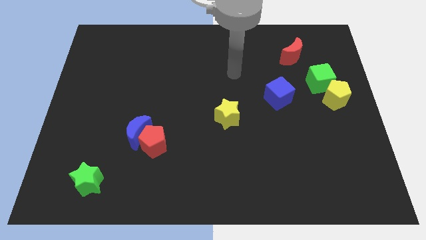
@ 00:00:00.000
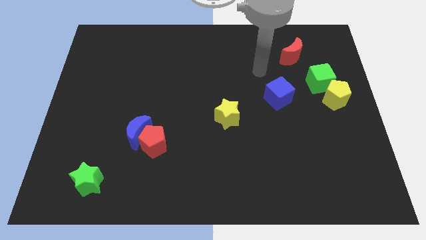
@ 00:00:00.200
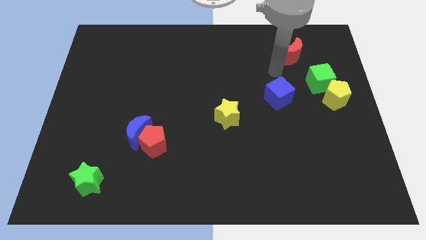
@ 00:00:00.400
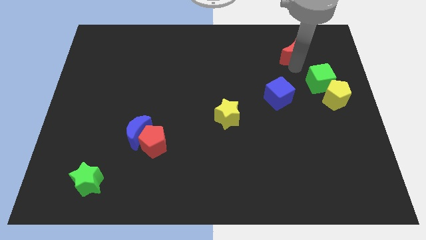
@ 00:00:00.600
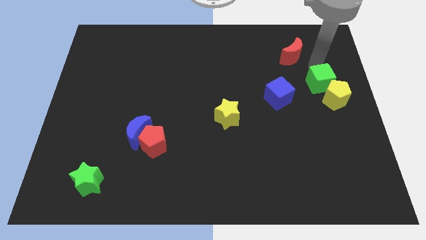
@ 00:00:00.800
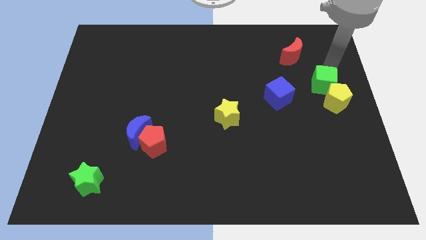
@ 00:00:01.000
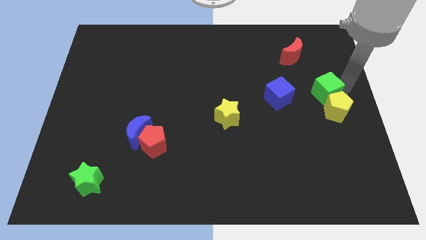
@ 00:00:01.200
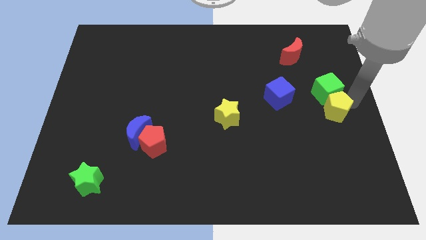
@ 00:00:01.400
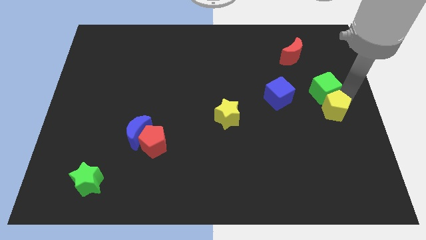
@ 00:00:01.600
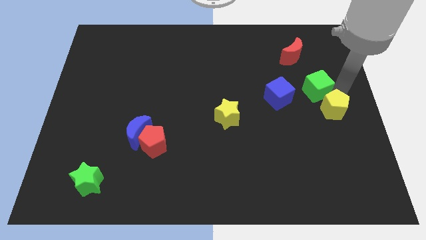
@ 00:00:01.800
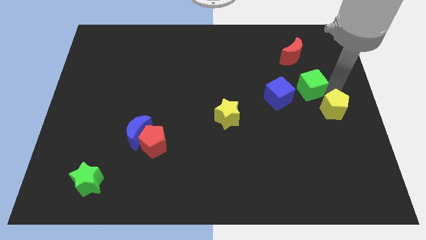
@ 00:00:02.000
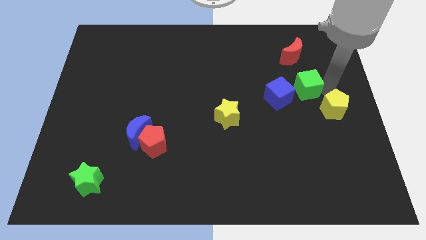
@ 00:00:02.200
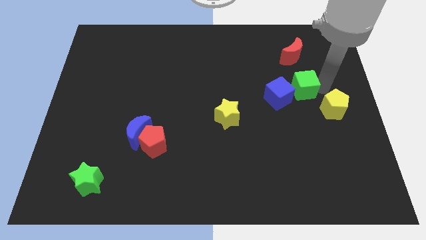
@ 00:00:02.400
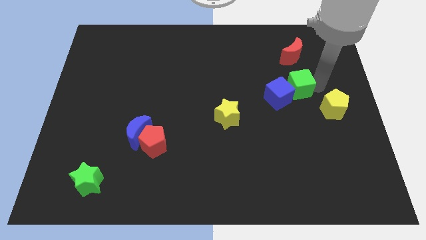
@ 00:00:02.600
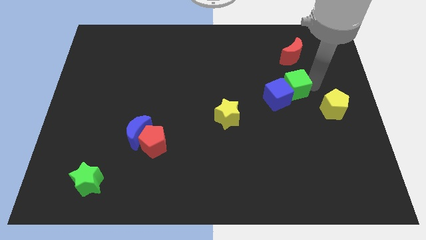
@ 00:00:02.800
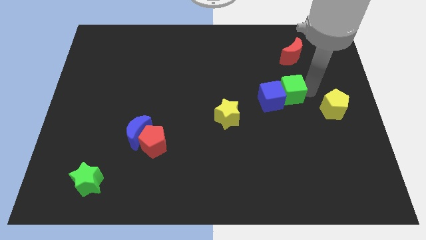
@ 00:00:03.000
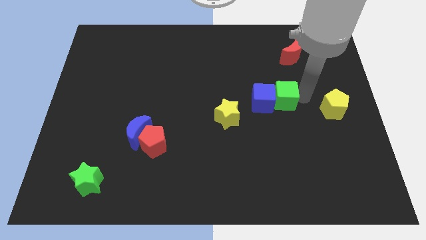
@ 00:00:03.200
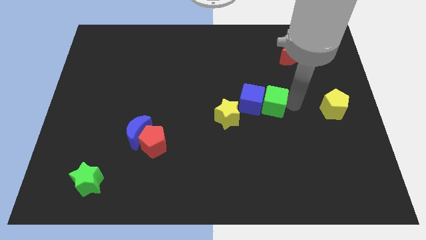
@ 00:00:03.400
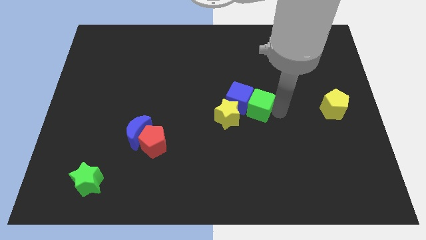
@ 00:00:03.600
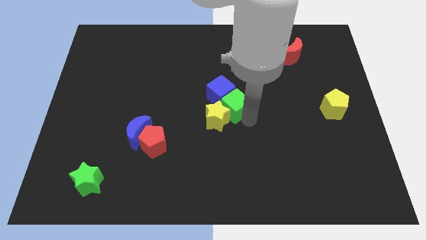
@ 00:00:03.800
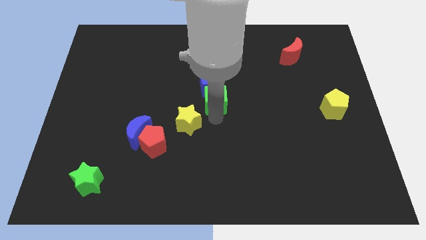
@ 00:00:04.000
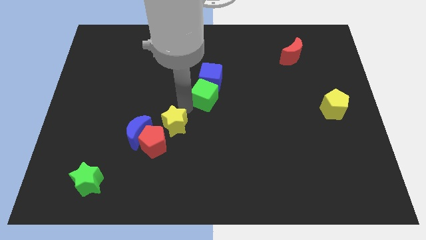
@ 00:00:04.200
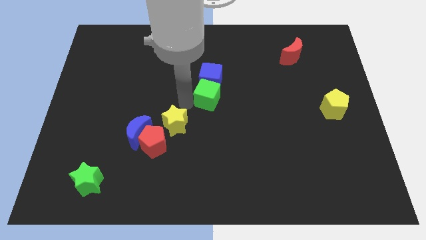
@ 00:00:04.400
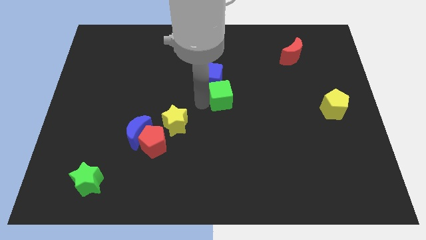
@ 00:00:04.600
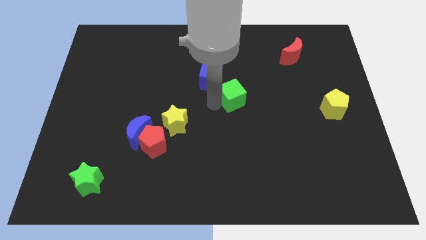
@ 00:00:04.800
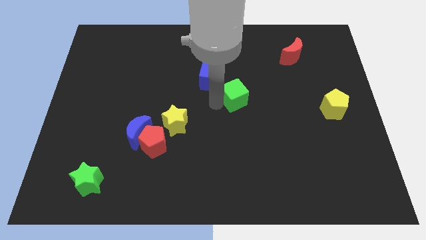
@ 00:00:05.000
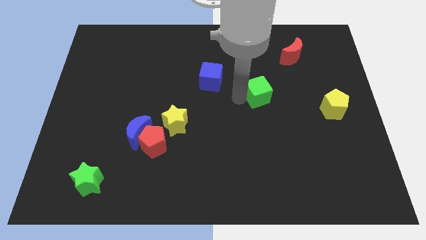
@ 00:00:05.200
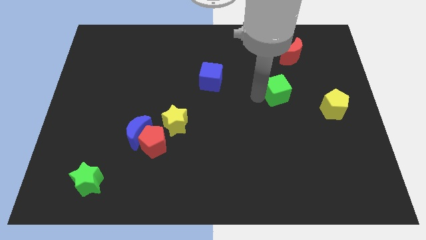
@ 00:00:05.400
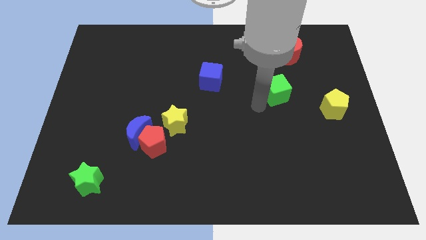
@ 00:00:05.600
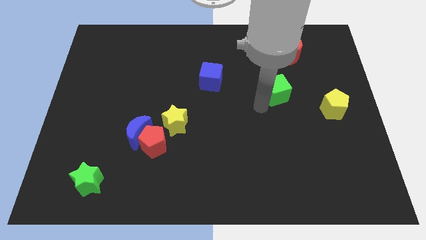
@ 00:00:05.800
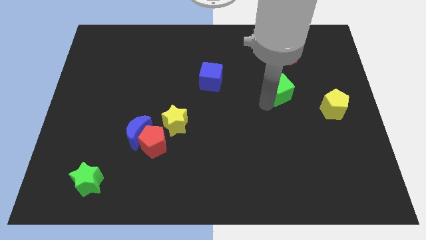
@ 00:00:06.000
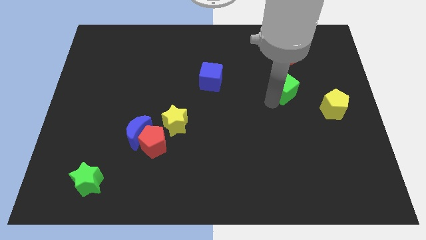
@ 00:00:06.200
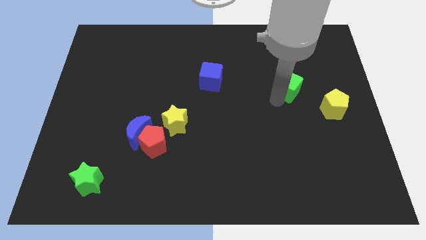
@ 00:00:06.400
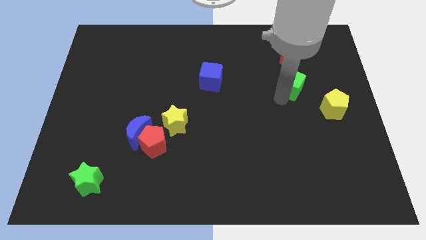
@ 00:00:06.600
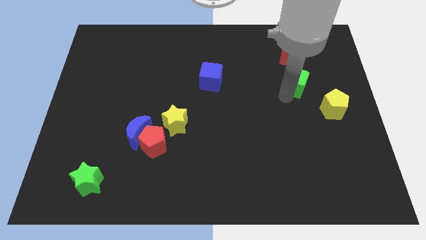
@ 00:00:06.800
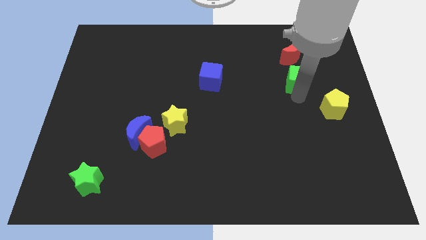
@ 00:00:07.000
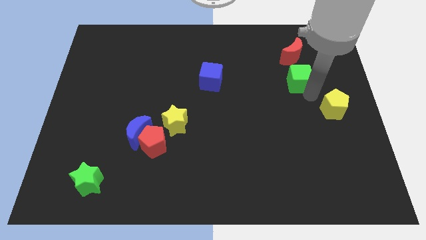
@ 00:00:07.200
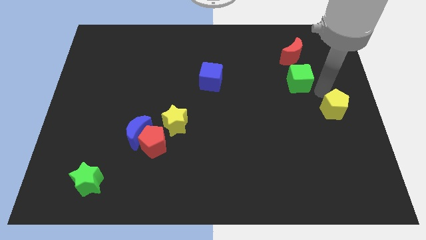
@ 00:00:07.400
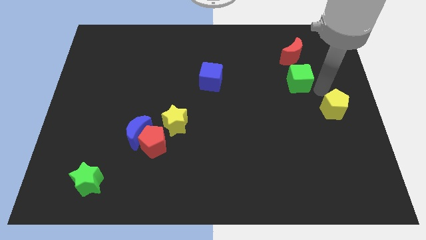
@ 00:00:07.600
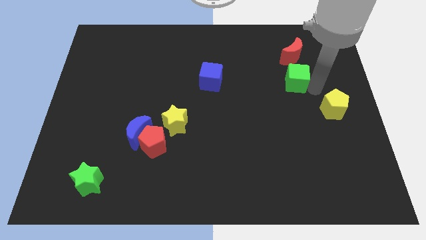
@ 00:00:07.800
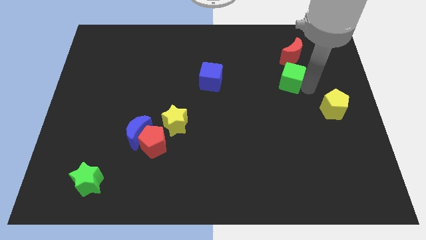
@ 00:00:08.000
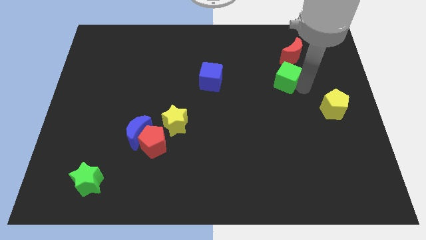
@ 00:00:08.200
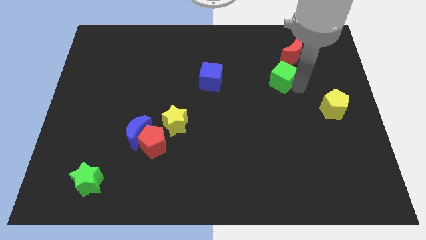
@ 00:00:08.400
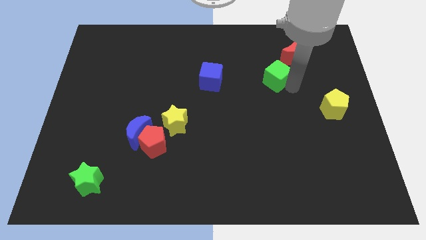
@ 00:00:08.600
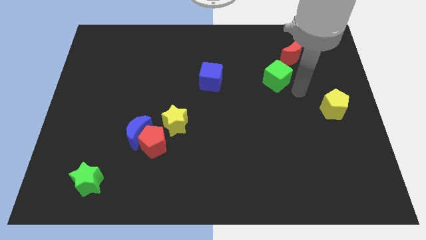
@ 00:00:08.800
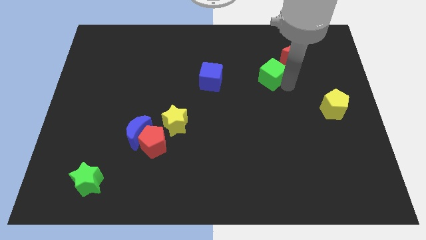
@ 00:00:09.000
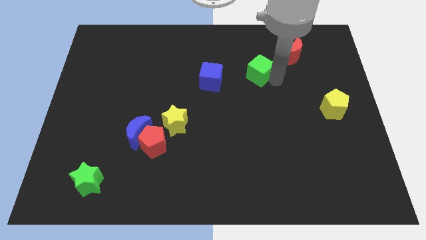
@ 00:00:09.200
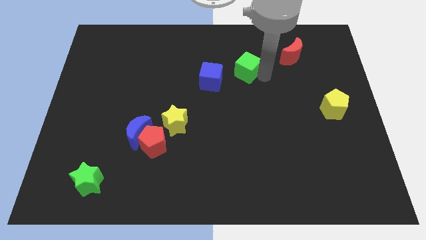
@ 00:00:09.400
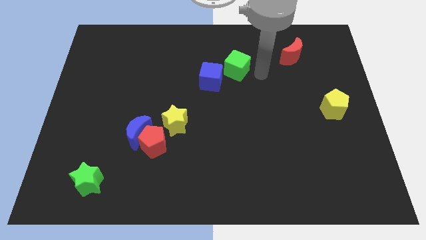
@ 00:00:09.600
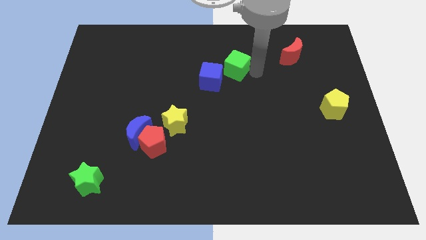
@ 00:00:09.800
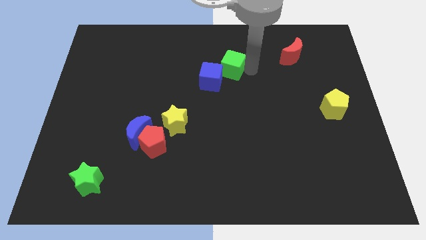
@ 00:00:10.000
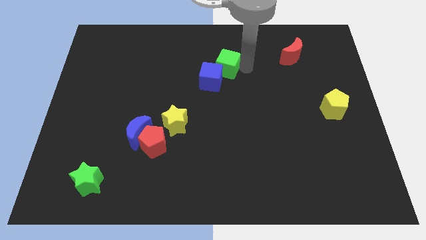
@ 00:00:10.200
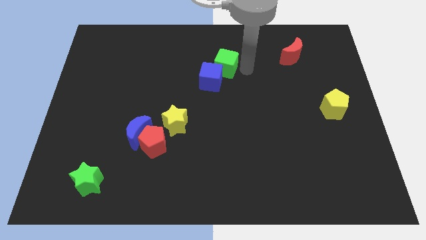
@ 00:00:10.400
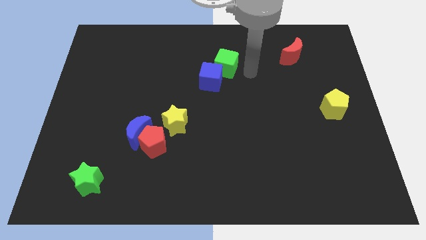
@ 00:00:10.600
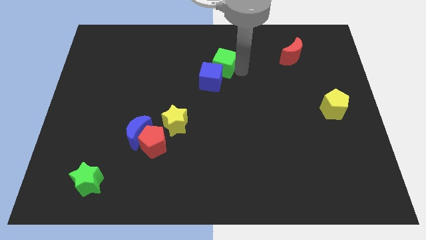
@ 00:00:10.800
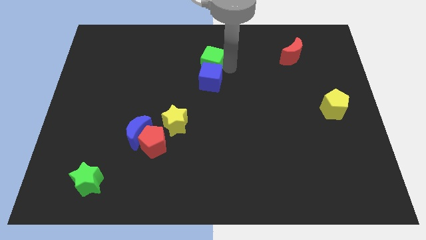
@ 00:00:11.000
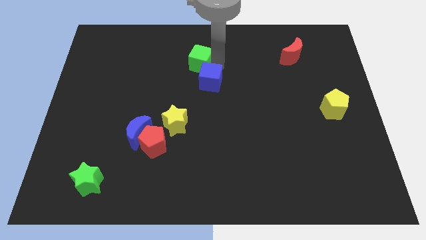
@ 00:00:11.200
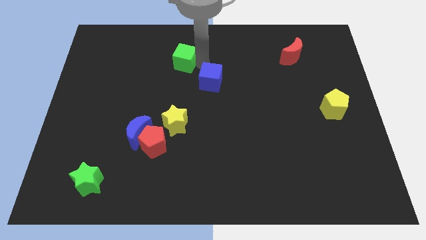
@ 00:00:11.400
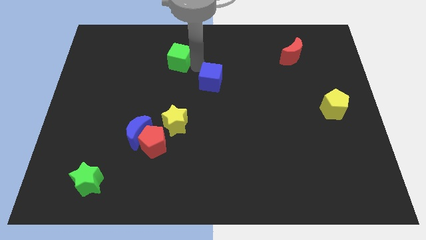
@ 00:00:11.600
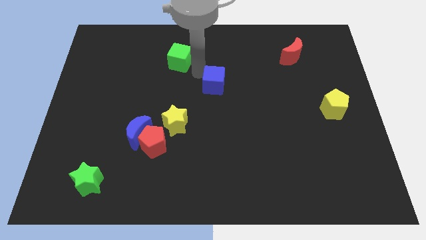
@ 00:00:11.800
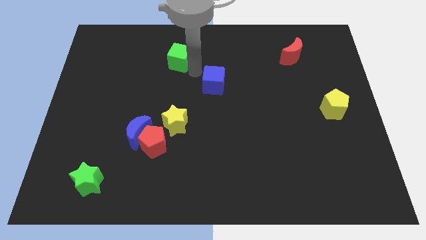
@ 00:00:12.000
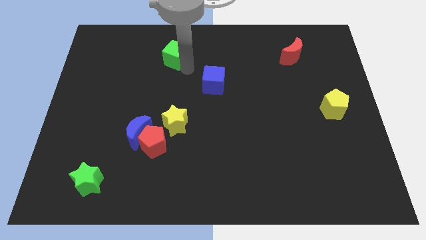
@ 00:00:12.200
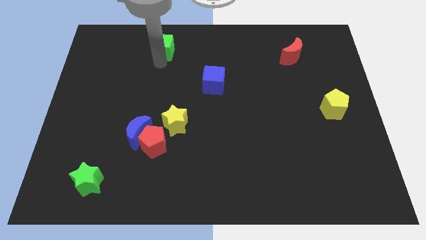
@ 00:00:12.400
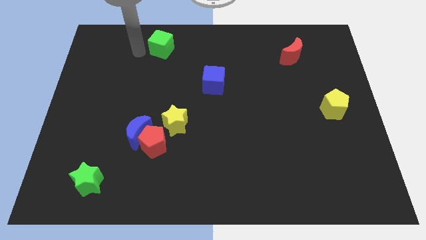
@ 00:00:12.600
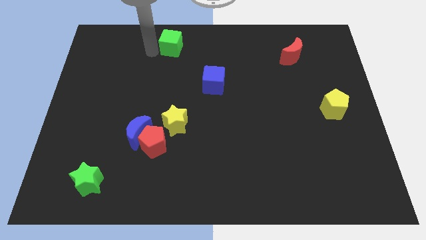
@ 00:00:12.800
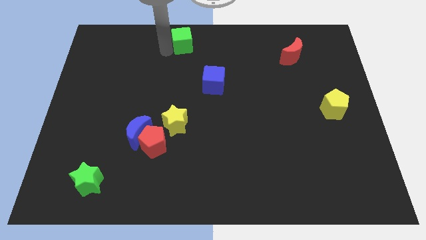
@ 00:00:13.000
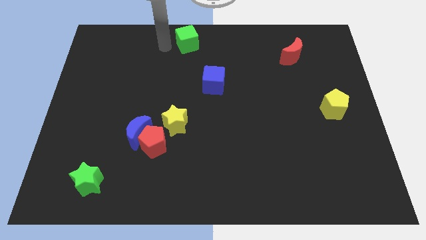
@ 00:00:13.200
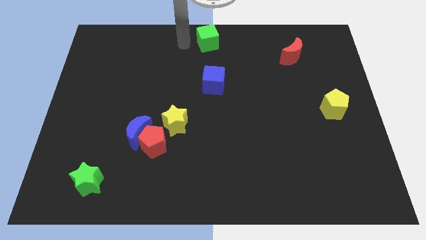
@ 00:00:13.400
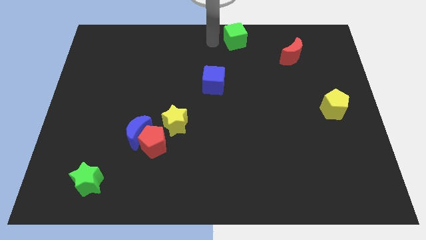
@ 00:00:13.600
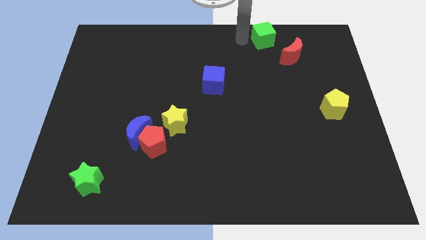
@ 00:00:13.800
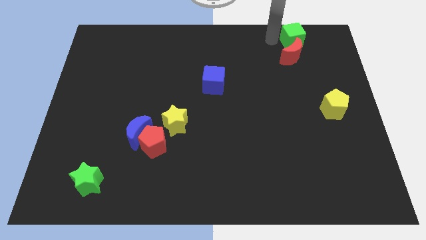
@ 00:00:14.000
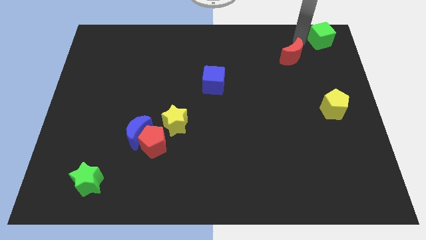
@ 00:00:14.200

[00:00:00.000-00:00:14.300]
push the green cube to the top right corner
